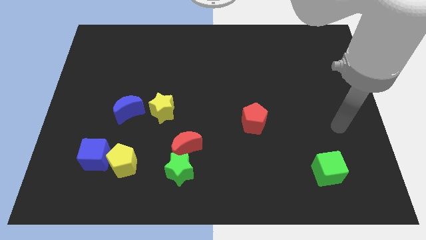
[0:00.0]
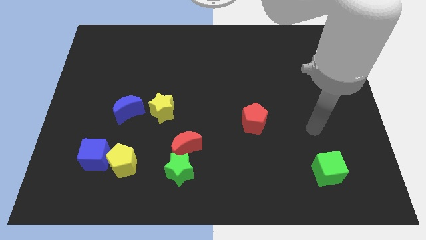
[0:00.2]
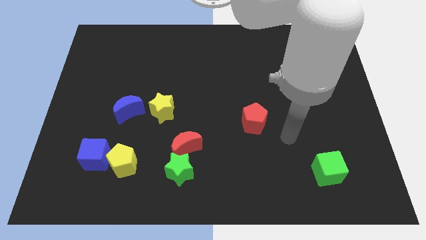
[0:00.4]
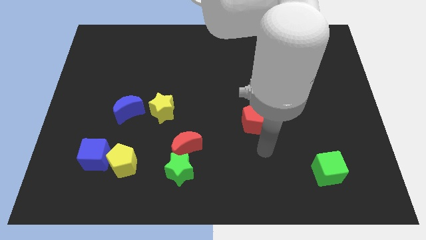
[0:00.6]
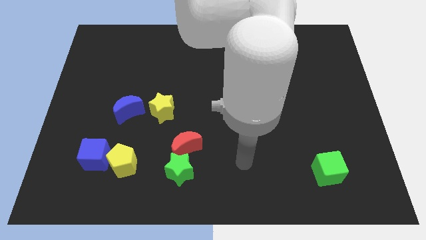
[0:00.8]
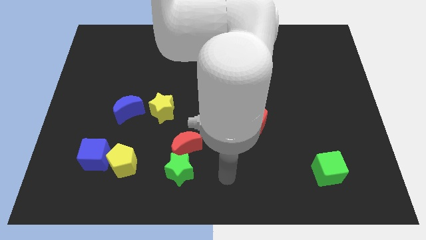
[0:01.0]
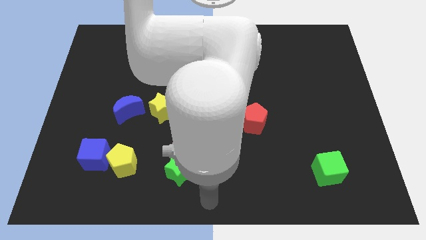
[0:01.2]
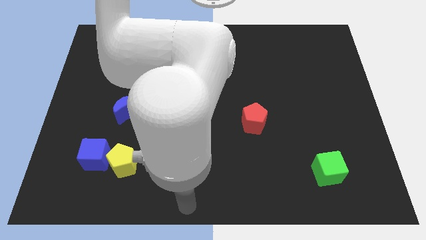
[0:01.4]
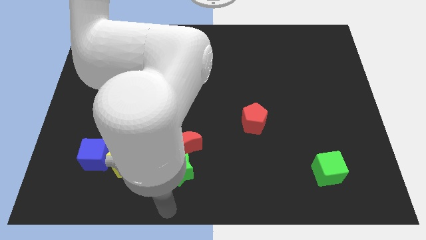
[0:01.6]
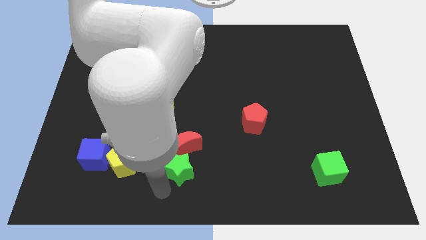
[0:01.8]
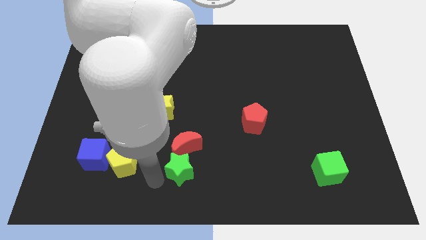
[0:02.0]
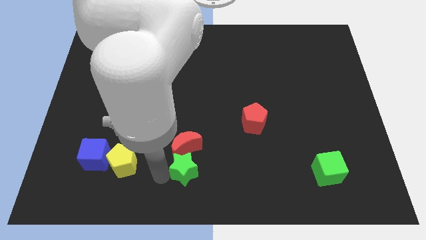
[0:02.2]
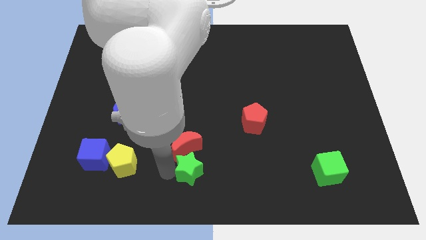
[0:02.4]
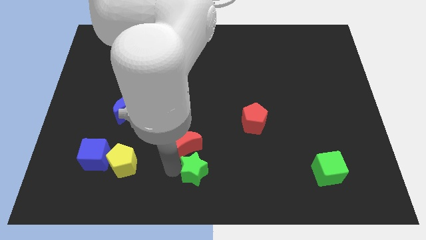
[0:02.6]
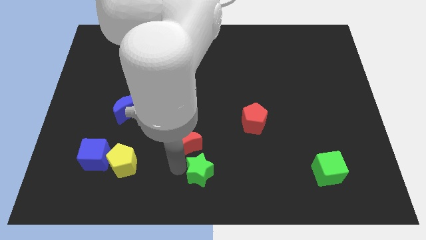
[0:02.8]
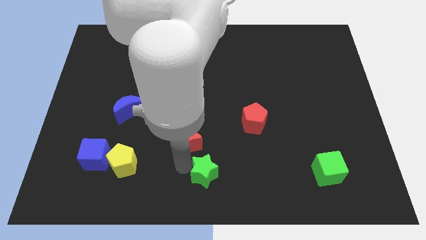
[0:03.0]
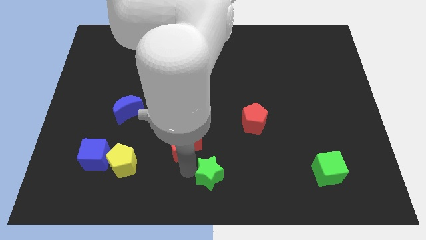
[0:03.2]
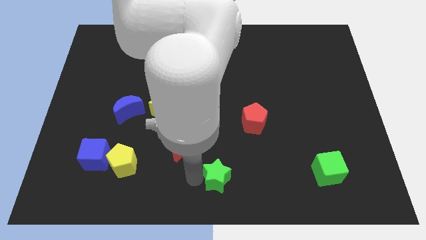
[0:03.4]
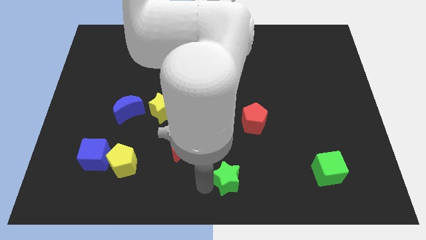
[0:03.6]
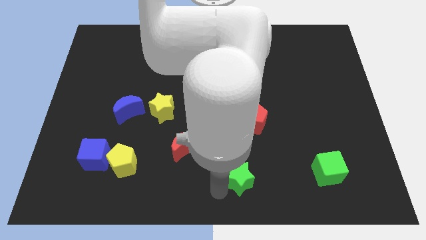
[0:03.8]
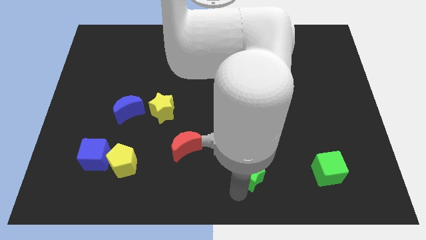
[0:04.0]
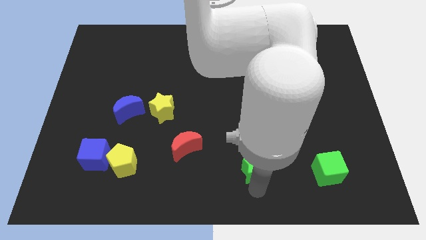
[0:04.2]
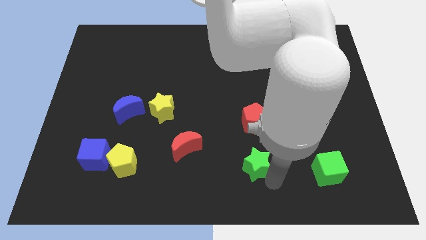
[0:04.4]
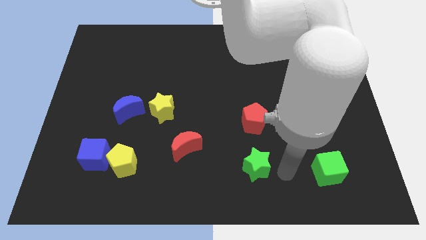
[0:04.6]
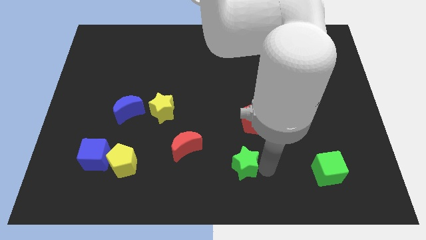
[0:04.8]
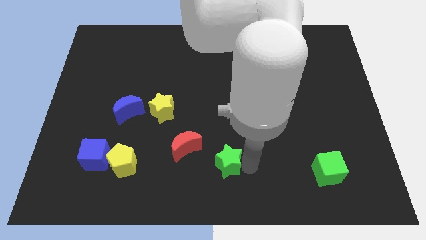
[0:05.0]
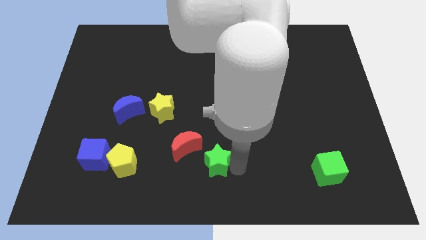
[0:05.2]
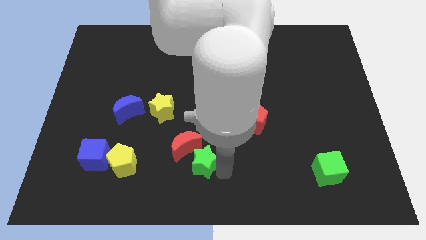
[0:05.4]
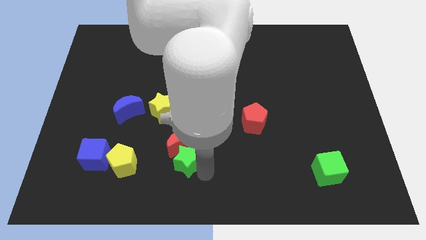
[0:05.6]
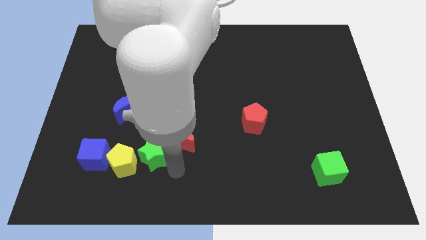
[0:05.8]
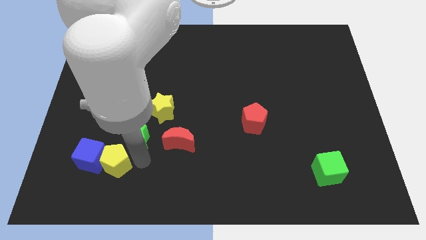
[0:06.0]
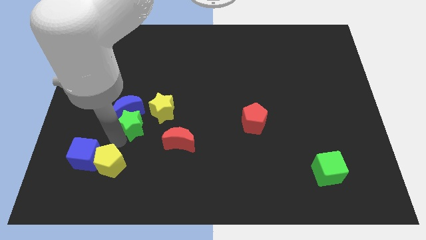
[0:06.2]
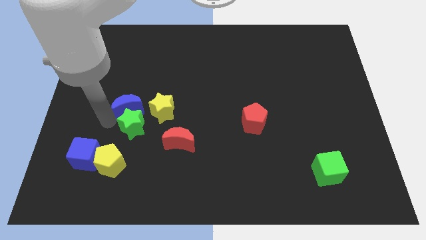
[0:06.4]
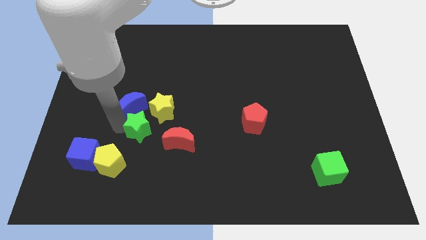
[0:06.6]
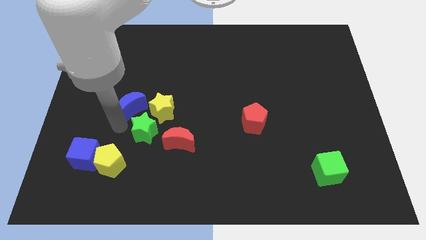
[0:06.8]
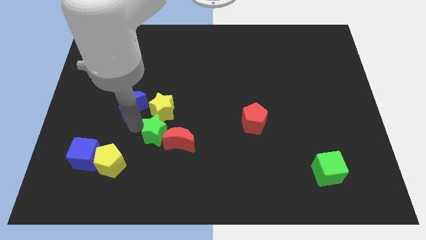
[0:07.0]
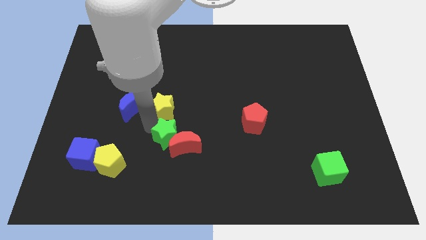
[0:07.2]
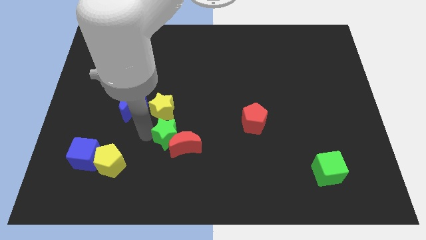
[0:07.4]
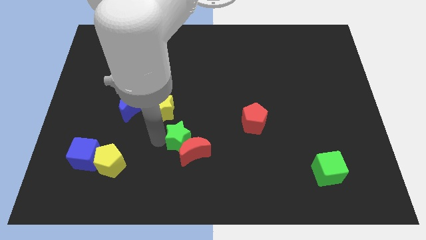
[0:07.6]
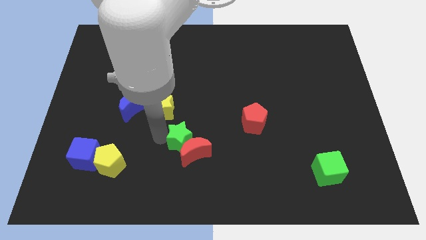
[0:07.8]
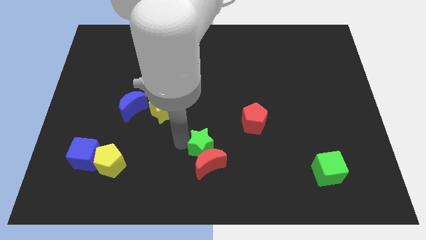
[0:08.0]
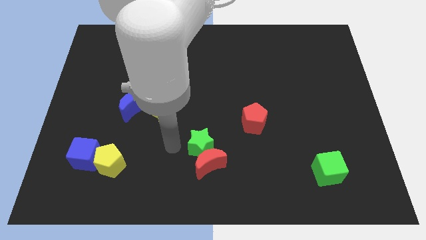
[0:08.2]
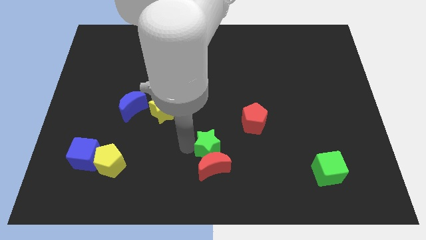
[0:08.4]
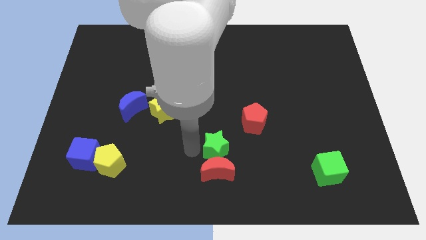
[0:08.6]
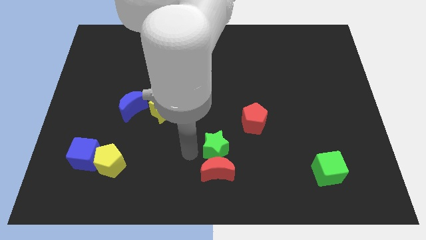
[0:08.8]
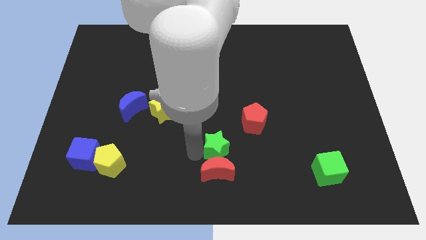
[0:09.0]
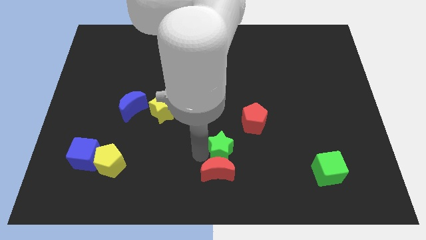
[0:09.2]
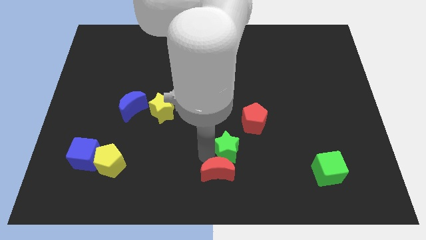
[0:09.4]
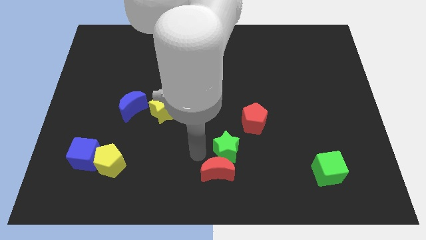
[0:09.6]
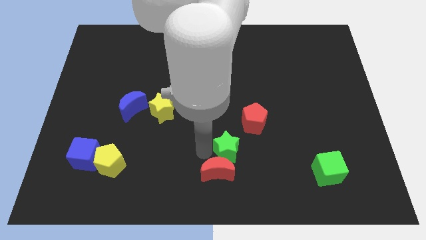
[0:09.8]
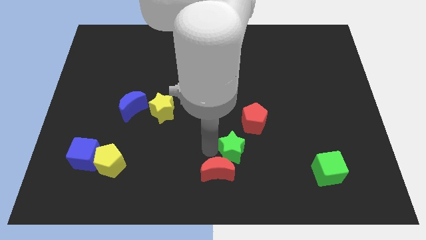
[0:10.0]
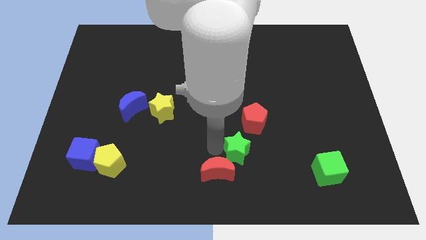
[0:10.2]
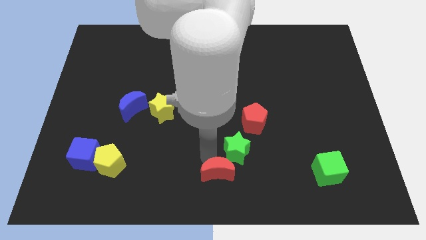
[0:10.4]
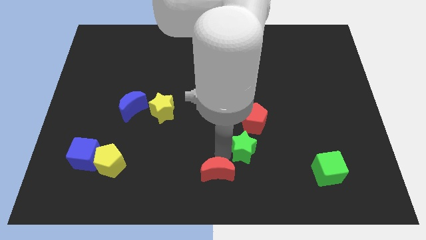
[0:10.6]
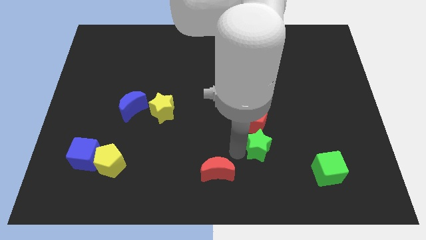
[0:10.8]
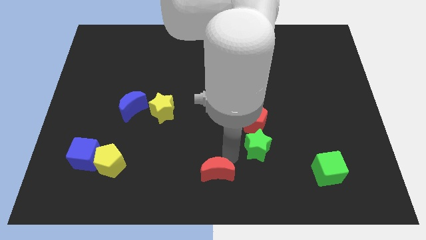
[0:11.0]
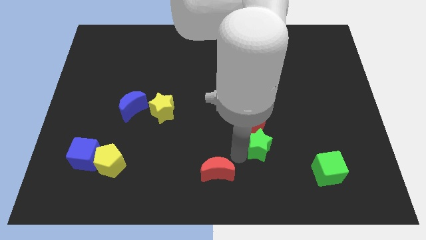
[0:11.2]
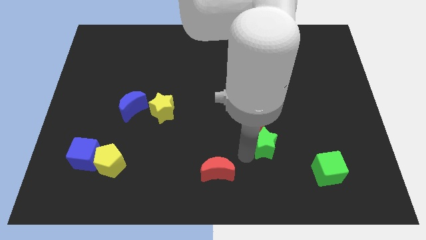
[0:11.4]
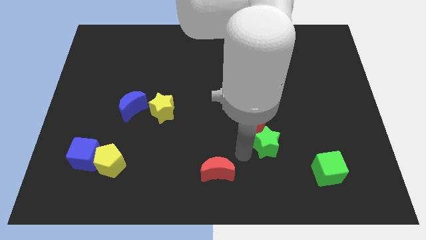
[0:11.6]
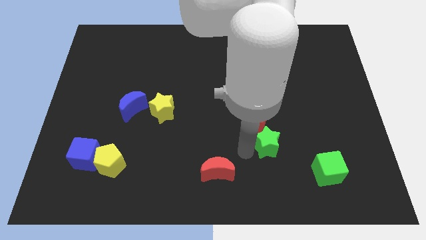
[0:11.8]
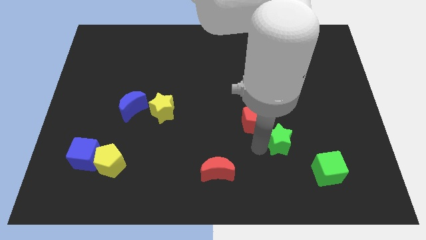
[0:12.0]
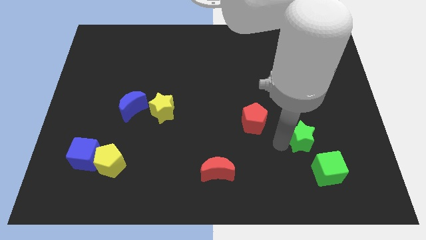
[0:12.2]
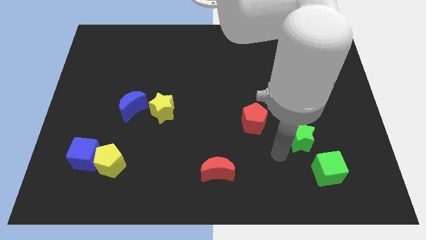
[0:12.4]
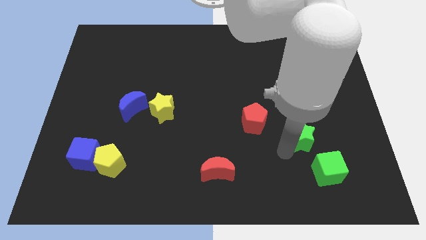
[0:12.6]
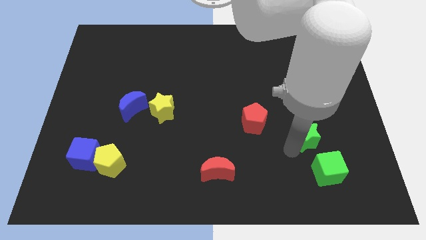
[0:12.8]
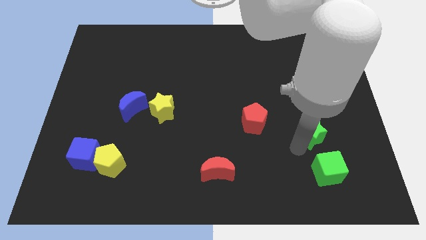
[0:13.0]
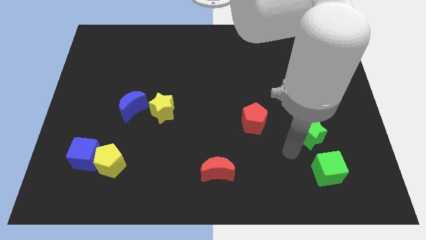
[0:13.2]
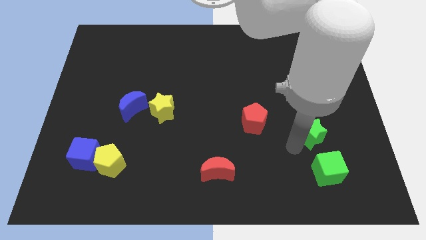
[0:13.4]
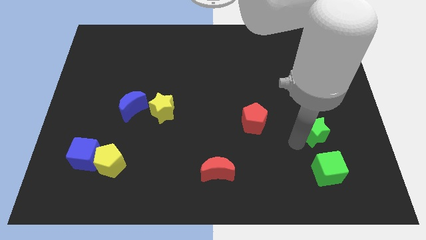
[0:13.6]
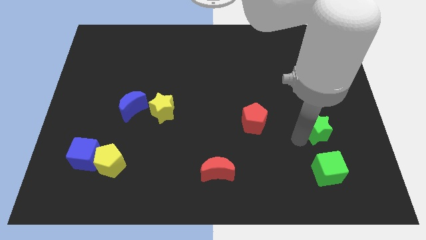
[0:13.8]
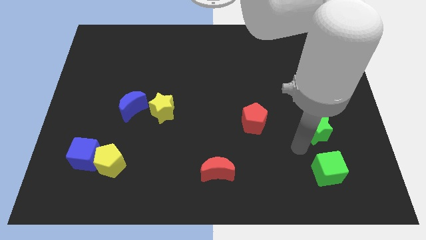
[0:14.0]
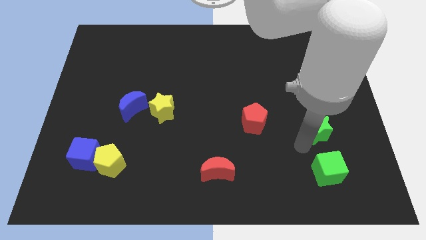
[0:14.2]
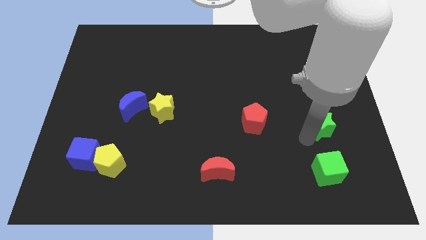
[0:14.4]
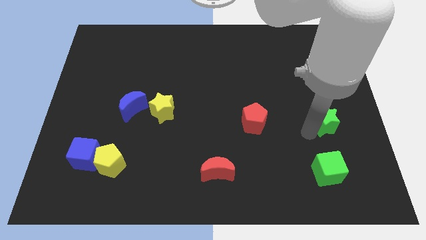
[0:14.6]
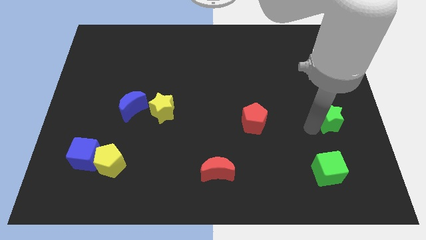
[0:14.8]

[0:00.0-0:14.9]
slide the green star to the right side
